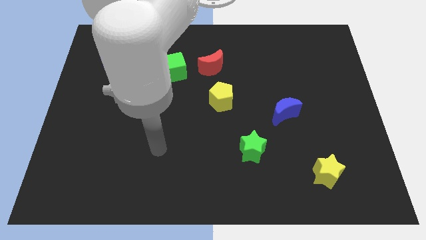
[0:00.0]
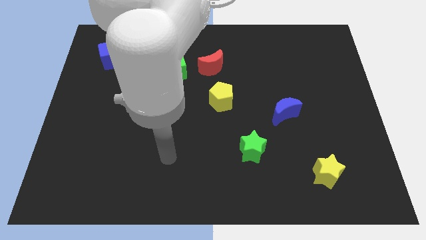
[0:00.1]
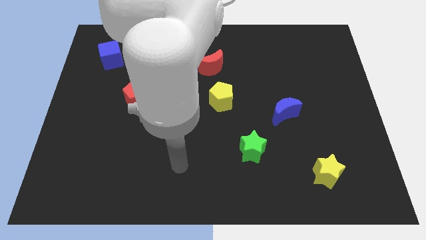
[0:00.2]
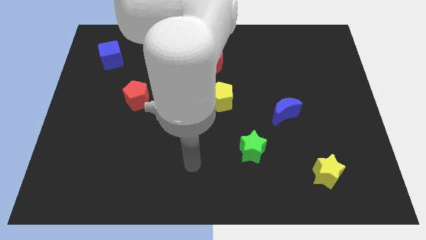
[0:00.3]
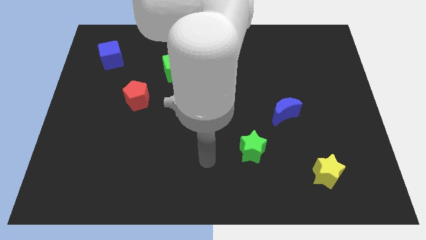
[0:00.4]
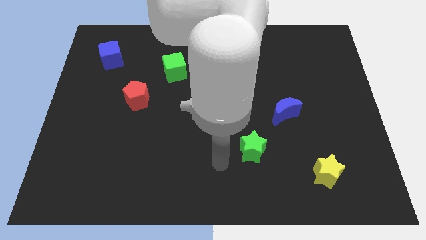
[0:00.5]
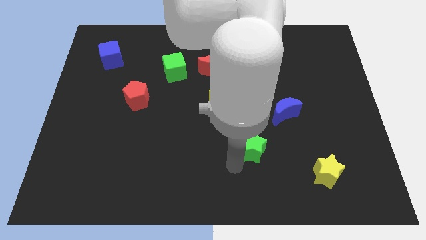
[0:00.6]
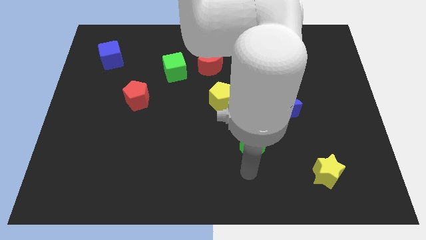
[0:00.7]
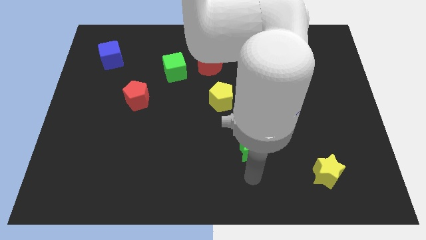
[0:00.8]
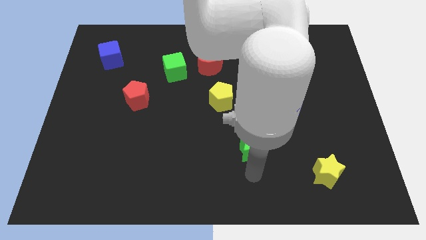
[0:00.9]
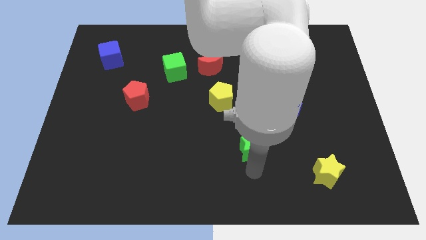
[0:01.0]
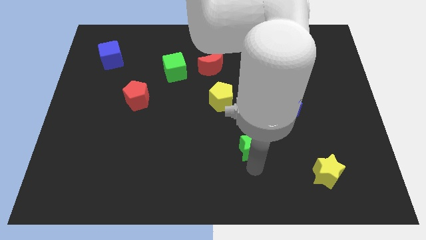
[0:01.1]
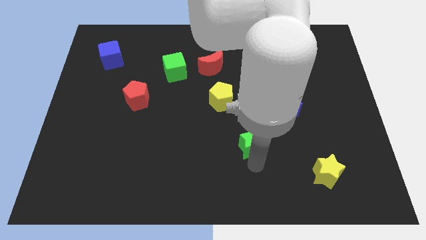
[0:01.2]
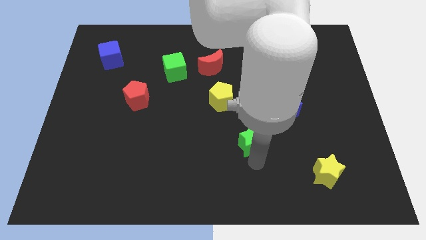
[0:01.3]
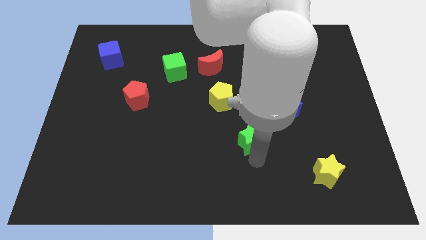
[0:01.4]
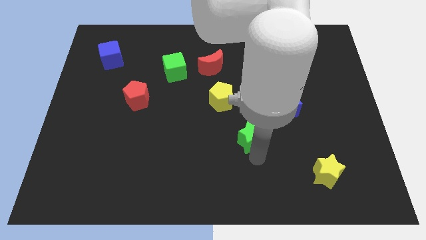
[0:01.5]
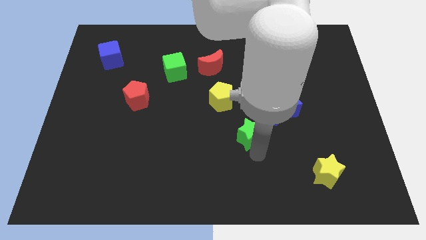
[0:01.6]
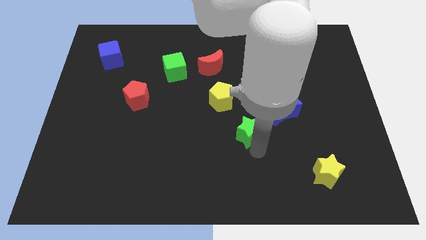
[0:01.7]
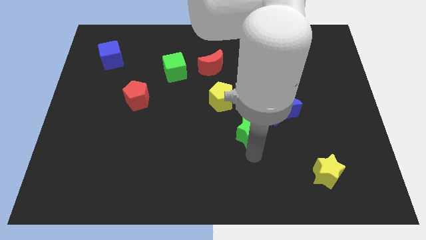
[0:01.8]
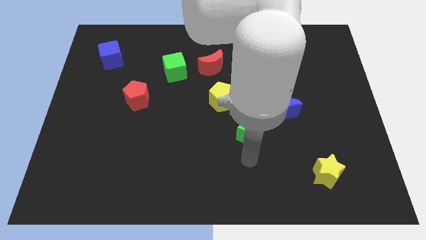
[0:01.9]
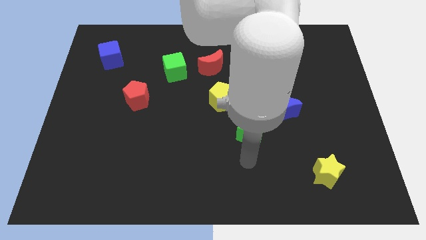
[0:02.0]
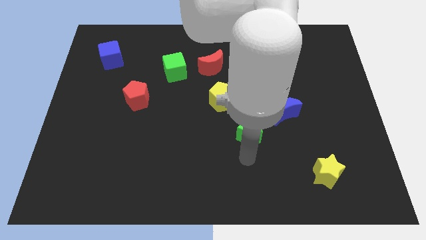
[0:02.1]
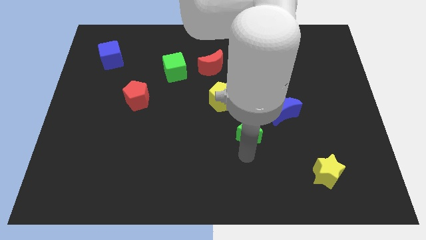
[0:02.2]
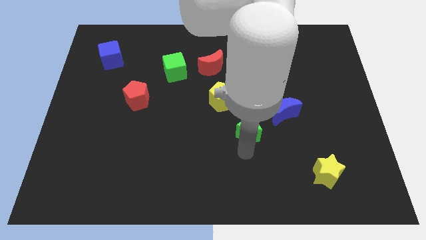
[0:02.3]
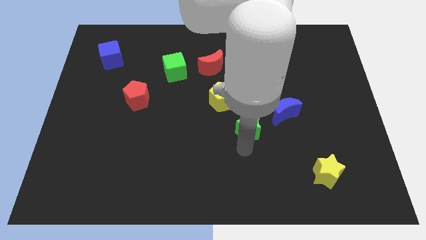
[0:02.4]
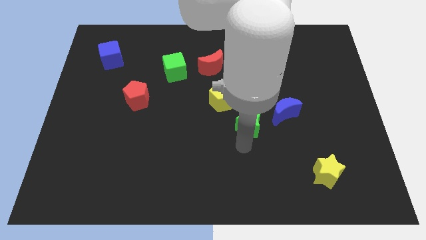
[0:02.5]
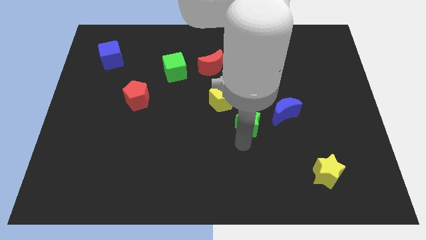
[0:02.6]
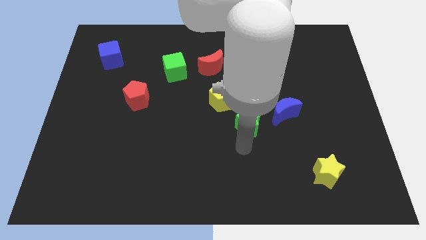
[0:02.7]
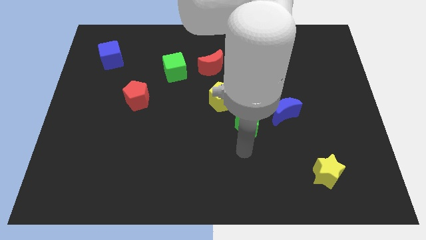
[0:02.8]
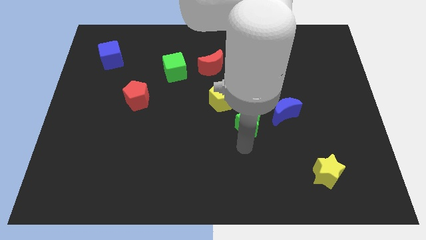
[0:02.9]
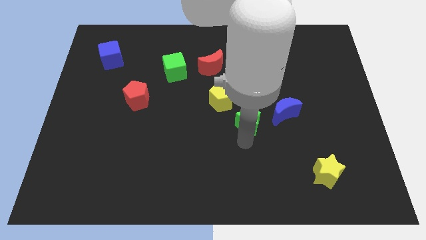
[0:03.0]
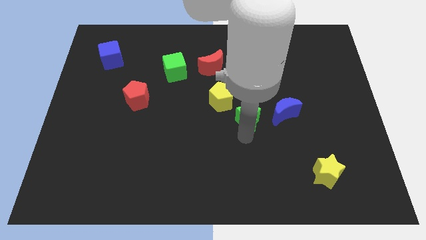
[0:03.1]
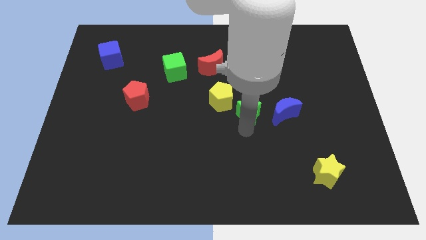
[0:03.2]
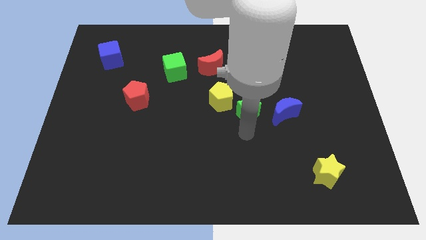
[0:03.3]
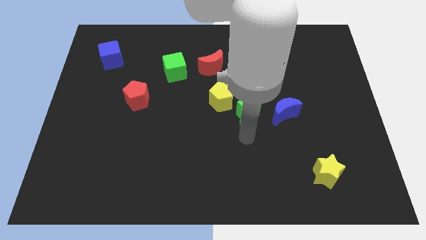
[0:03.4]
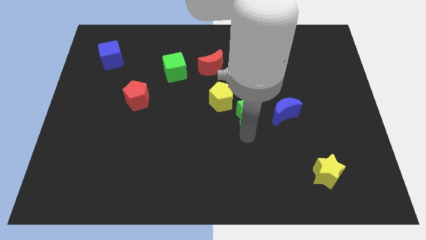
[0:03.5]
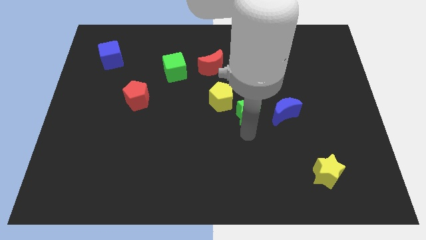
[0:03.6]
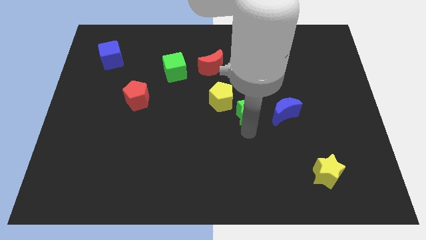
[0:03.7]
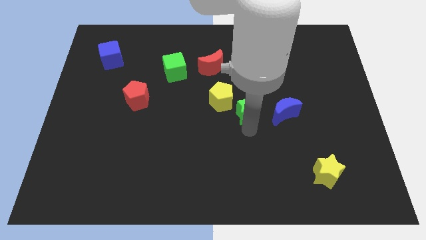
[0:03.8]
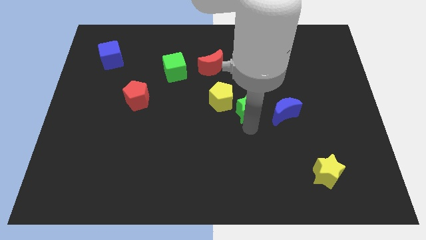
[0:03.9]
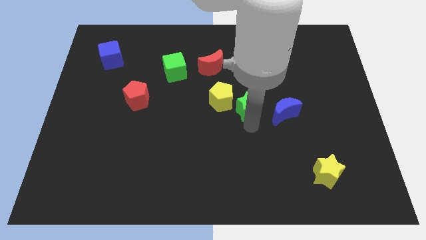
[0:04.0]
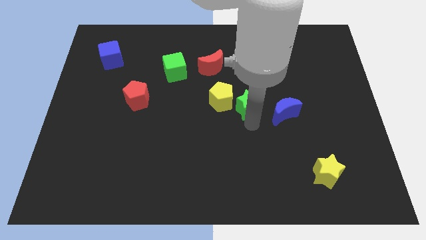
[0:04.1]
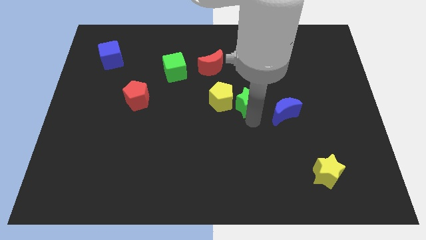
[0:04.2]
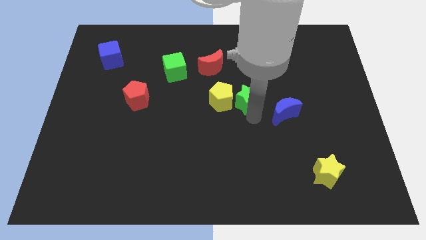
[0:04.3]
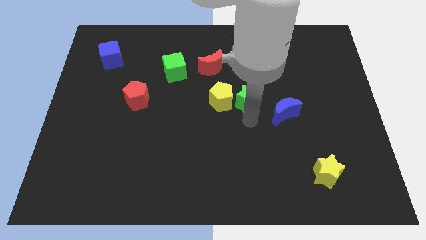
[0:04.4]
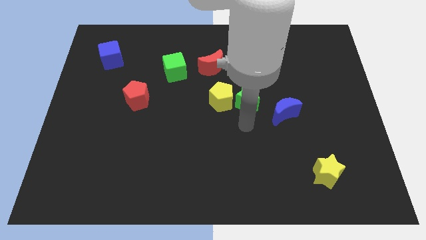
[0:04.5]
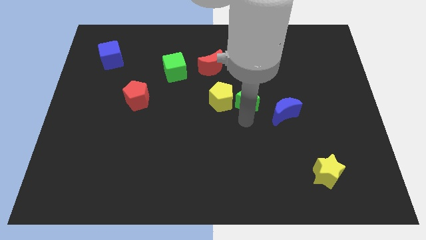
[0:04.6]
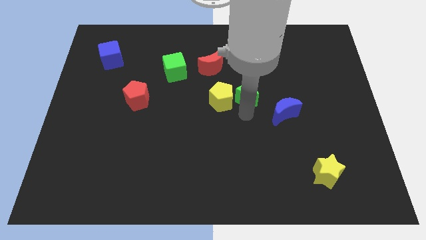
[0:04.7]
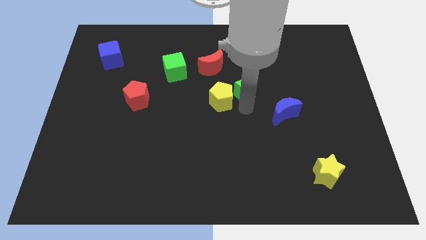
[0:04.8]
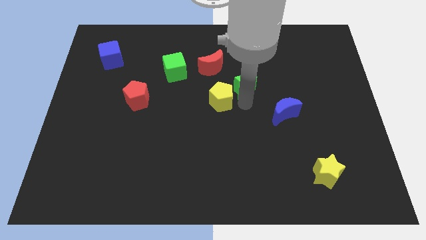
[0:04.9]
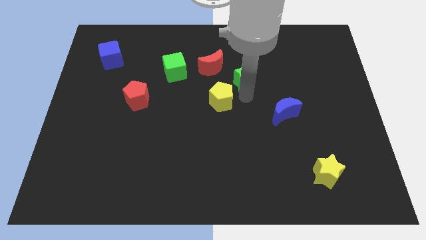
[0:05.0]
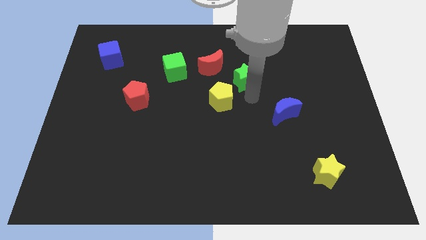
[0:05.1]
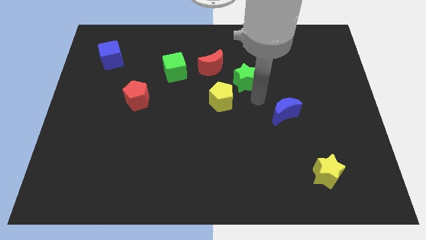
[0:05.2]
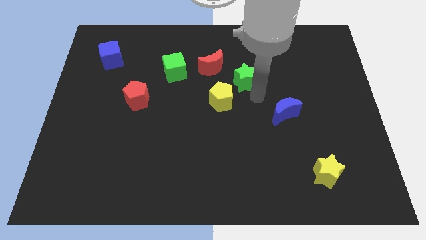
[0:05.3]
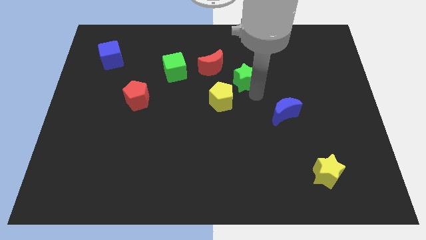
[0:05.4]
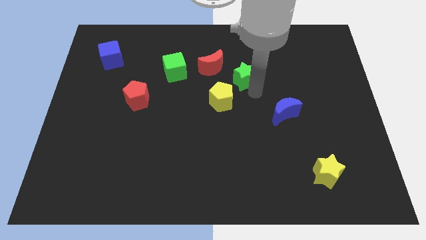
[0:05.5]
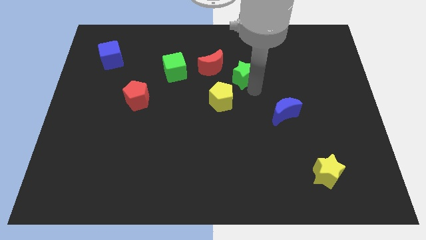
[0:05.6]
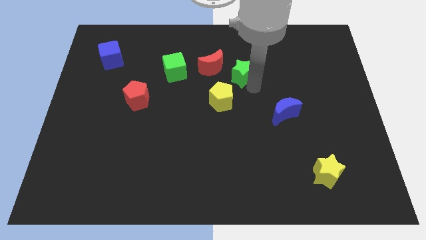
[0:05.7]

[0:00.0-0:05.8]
slide the green star to the top of the yellow pentagon

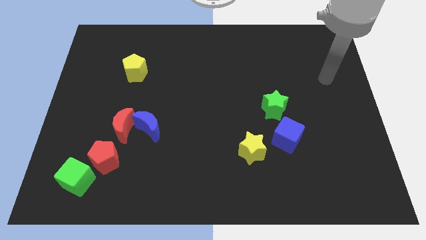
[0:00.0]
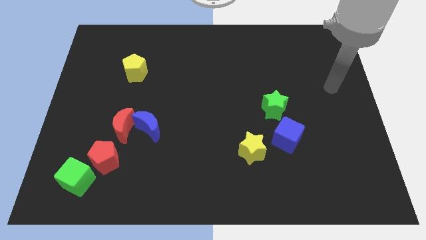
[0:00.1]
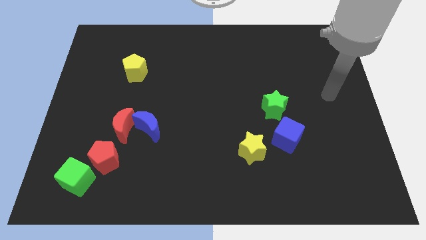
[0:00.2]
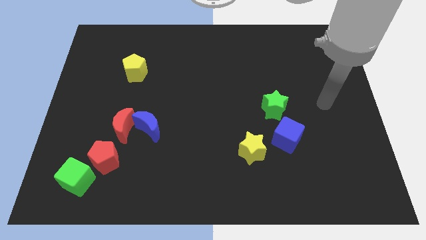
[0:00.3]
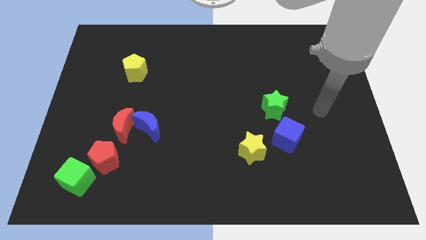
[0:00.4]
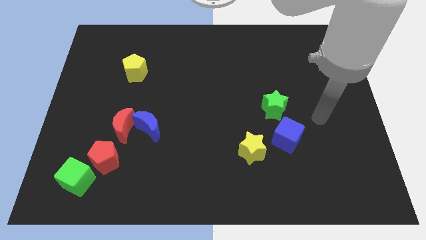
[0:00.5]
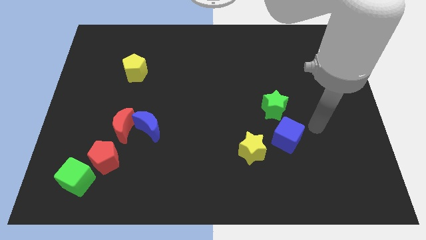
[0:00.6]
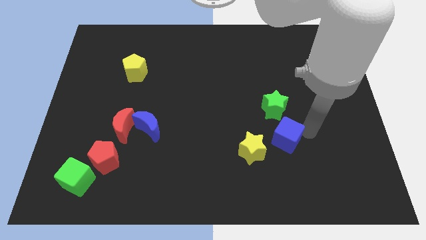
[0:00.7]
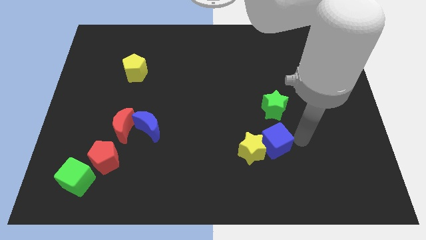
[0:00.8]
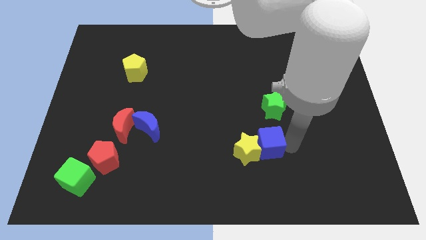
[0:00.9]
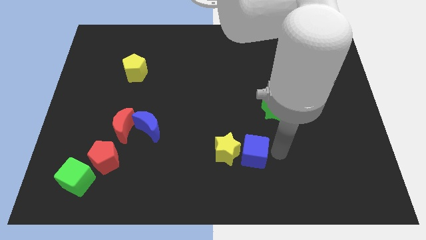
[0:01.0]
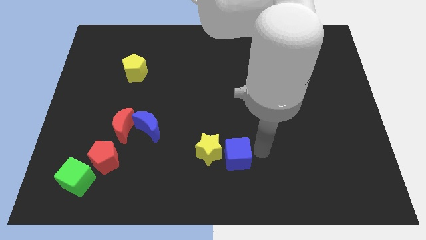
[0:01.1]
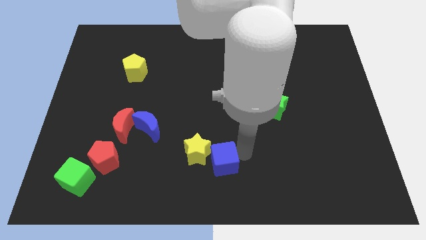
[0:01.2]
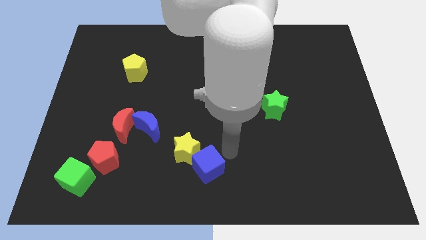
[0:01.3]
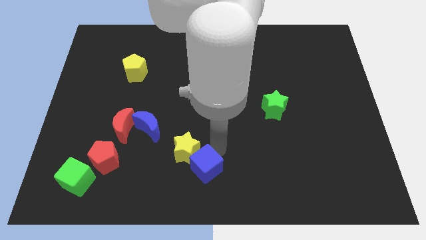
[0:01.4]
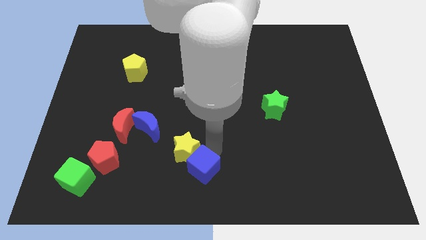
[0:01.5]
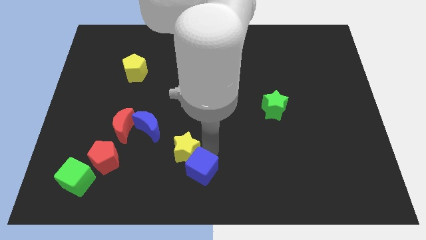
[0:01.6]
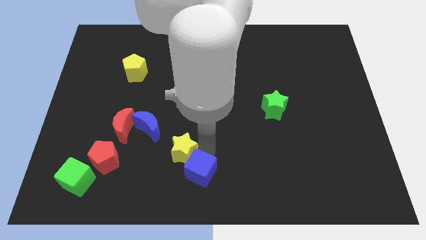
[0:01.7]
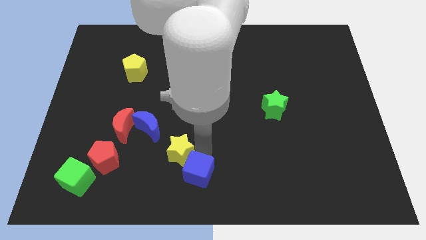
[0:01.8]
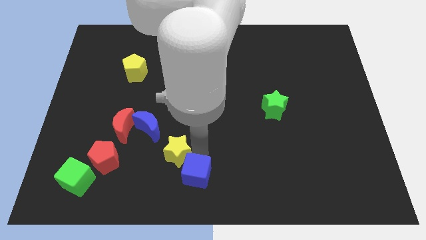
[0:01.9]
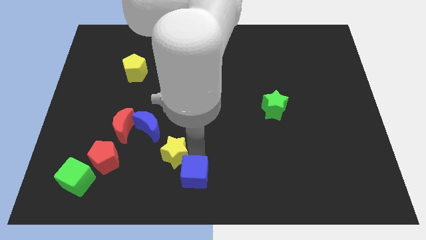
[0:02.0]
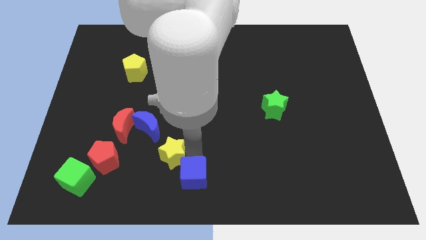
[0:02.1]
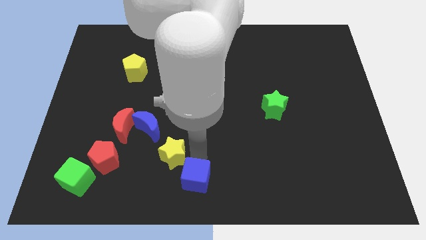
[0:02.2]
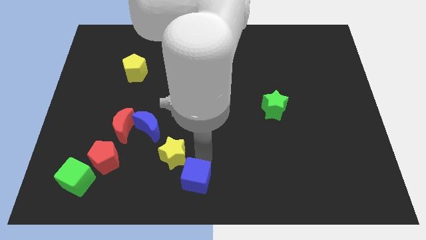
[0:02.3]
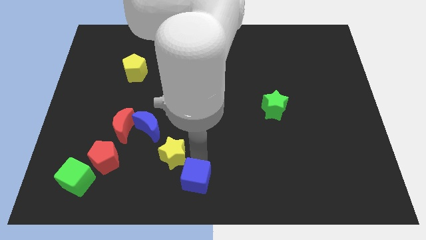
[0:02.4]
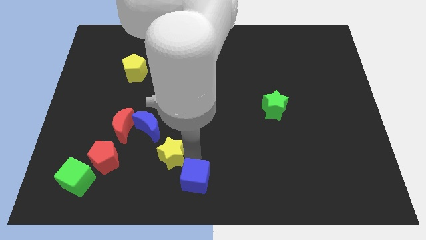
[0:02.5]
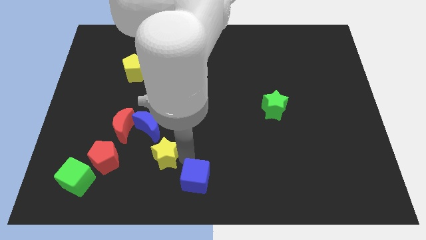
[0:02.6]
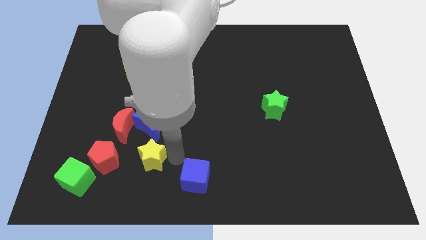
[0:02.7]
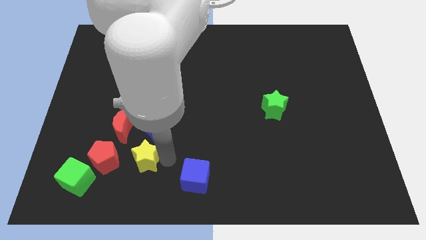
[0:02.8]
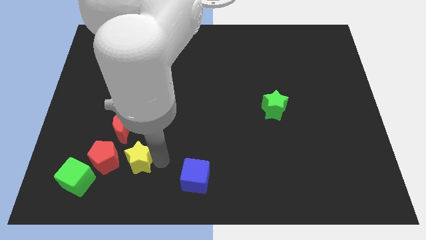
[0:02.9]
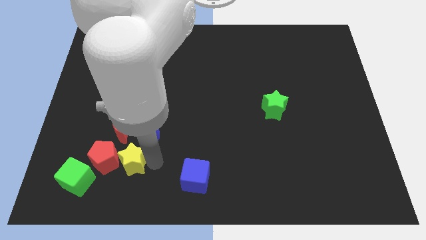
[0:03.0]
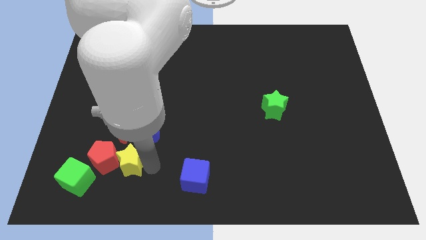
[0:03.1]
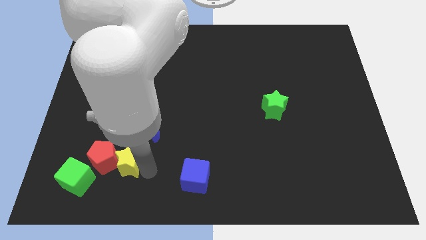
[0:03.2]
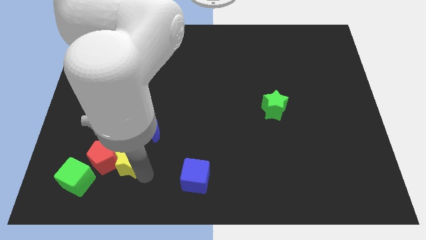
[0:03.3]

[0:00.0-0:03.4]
move the yellow star diagonally up and to the right of the green cube
